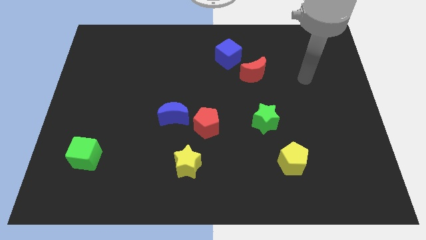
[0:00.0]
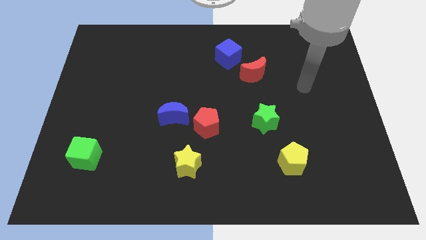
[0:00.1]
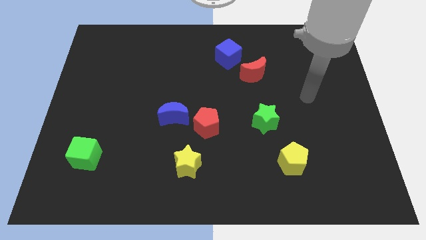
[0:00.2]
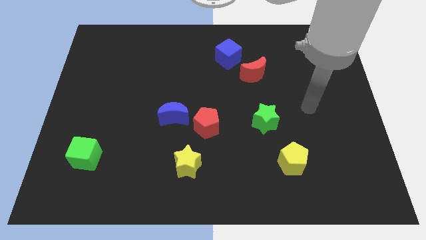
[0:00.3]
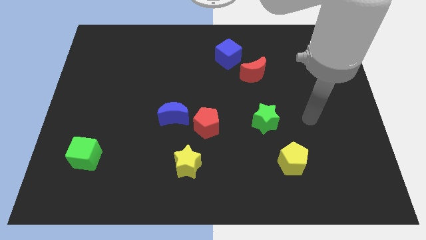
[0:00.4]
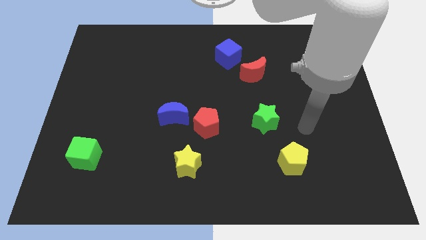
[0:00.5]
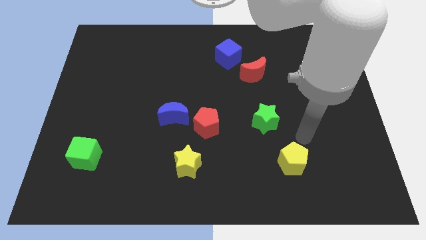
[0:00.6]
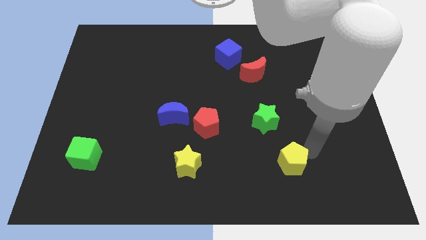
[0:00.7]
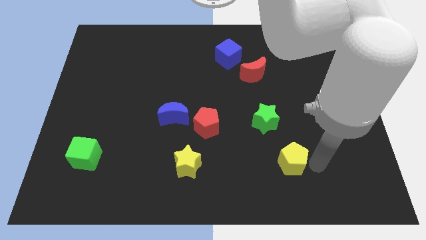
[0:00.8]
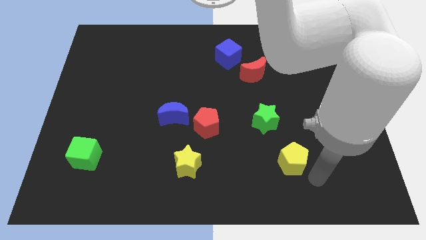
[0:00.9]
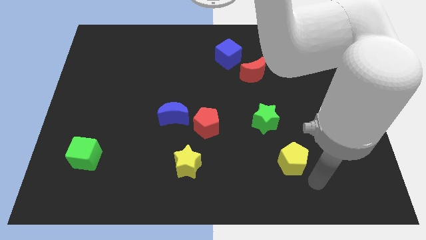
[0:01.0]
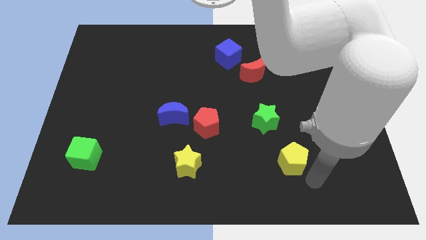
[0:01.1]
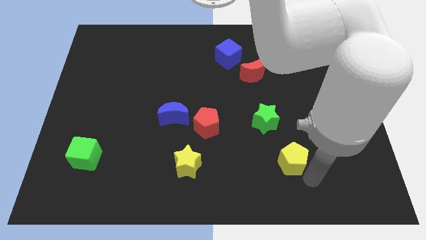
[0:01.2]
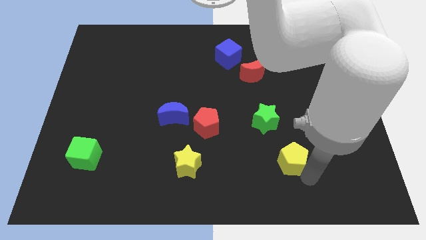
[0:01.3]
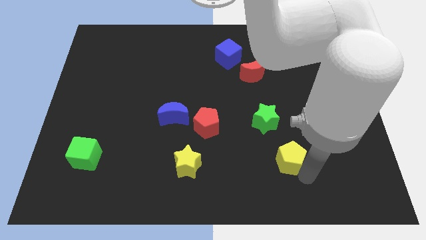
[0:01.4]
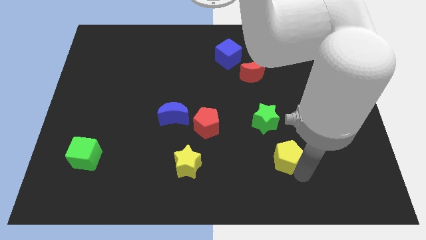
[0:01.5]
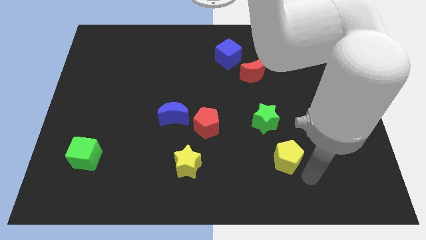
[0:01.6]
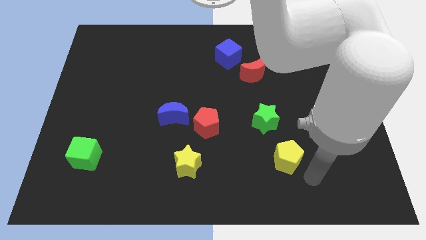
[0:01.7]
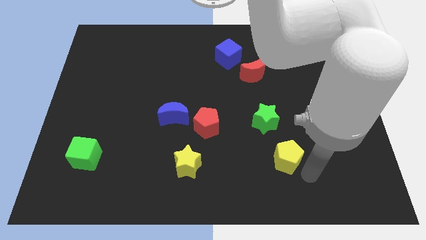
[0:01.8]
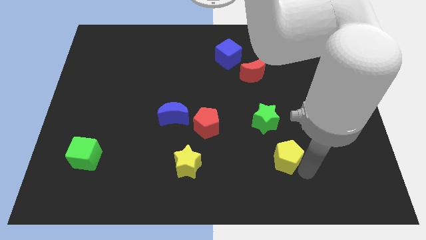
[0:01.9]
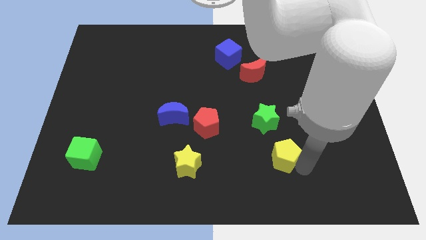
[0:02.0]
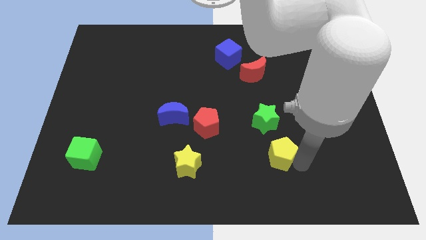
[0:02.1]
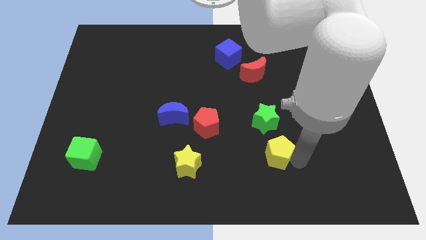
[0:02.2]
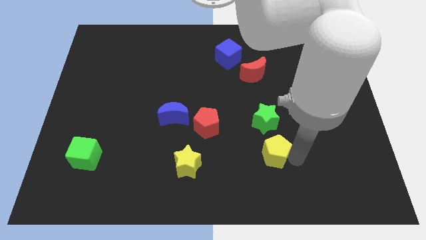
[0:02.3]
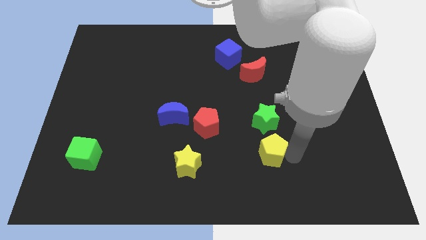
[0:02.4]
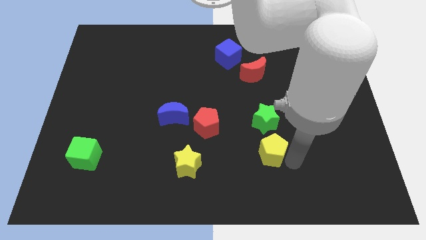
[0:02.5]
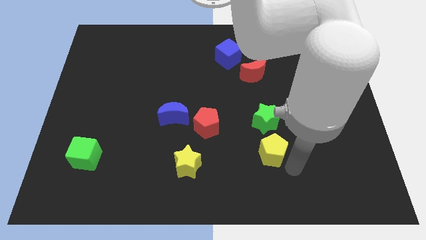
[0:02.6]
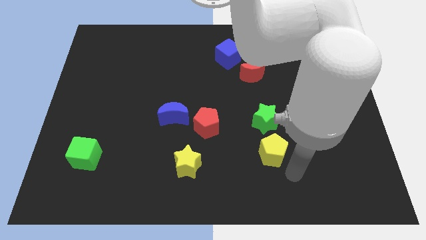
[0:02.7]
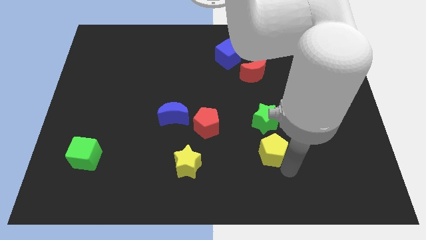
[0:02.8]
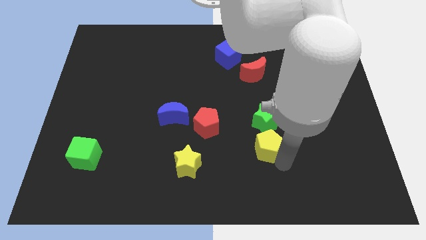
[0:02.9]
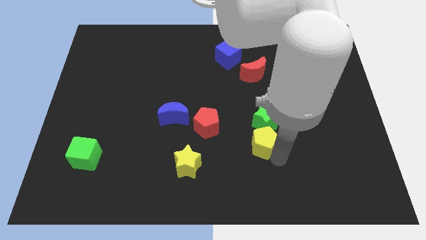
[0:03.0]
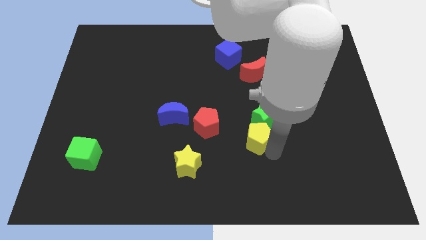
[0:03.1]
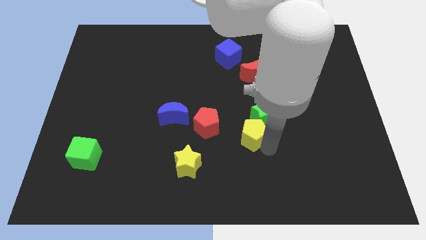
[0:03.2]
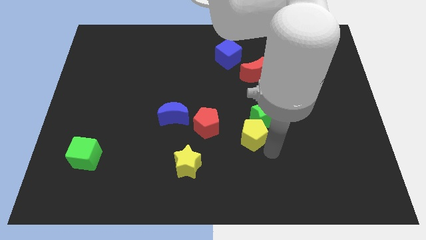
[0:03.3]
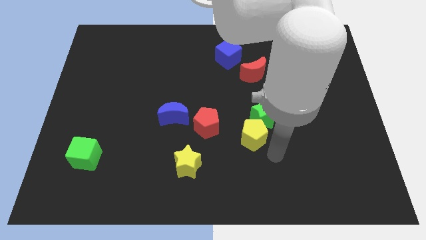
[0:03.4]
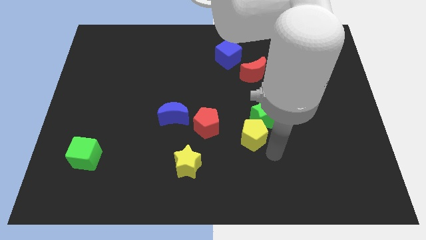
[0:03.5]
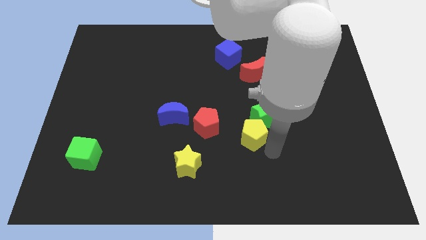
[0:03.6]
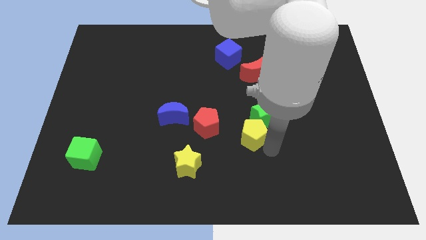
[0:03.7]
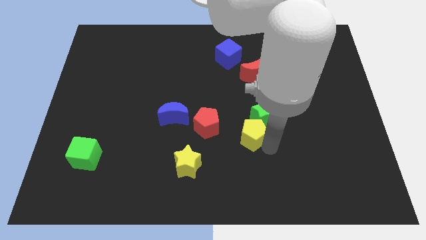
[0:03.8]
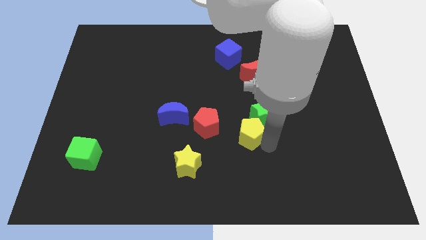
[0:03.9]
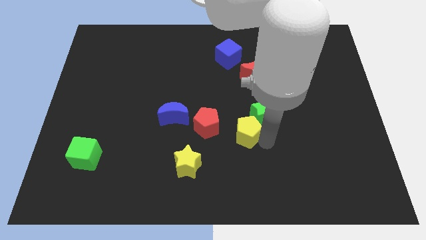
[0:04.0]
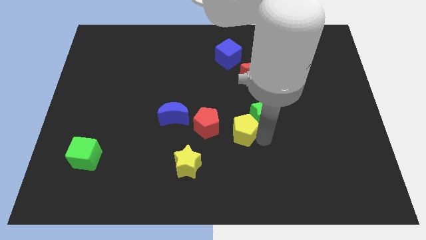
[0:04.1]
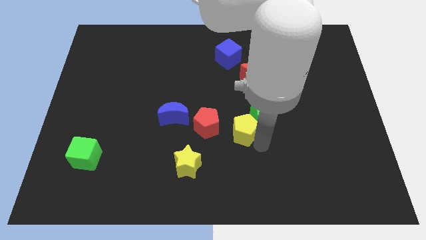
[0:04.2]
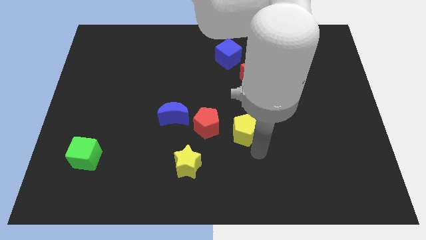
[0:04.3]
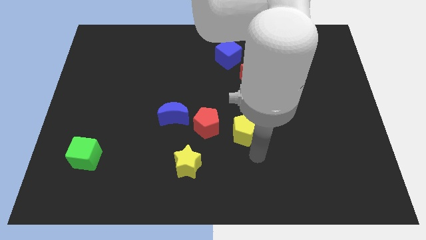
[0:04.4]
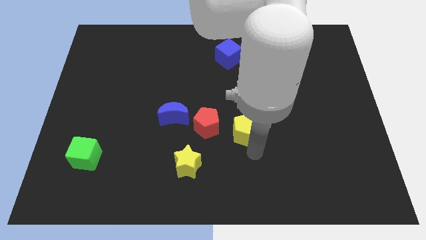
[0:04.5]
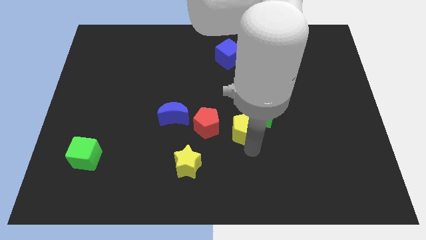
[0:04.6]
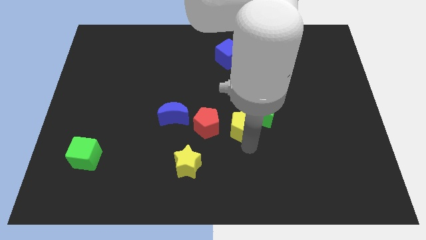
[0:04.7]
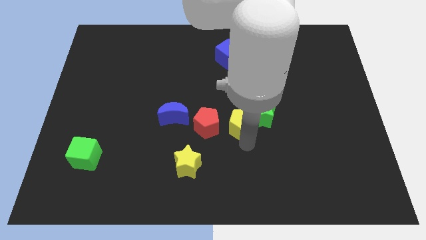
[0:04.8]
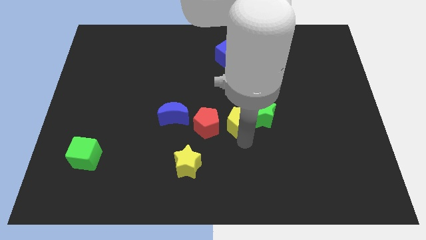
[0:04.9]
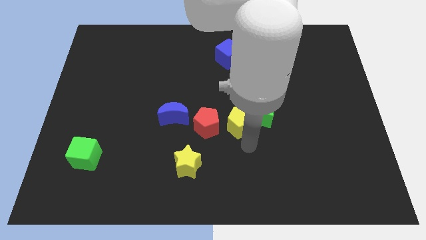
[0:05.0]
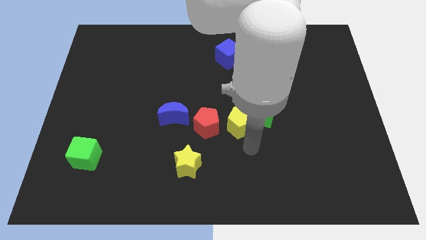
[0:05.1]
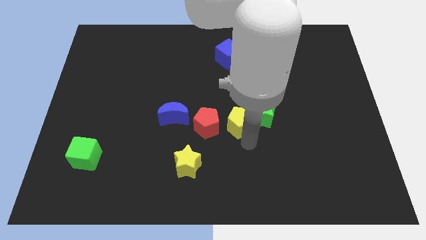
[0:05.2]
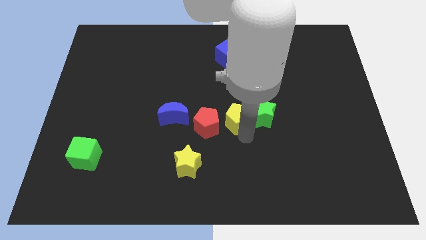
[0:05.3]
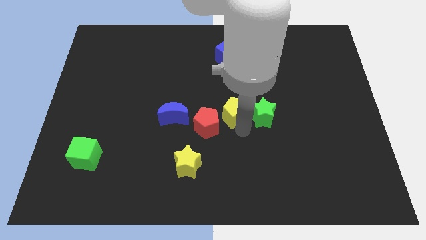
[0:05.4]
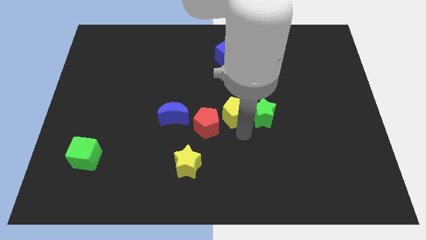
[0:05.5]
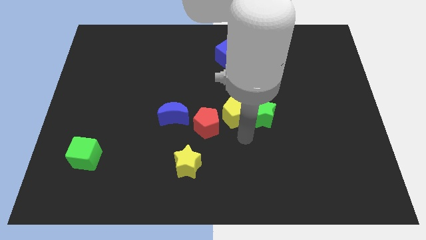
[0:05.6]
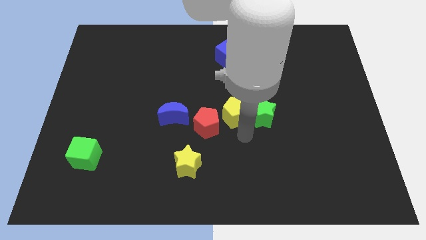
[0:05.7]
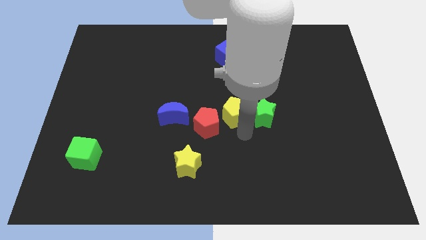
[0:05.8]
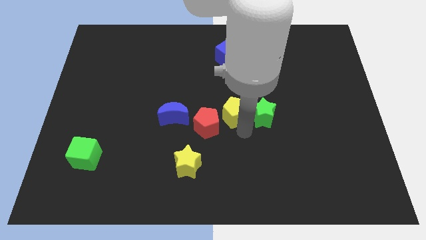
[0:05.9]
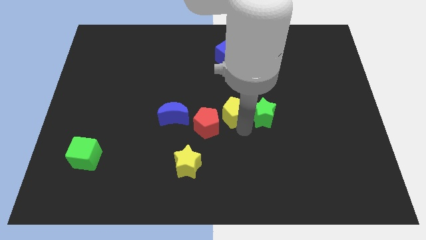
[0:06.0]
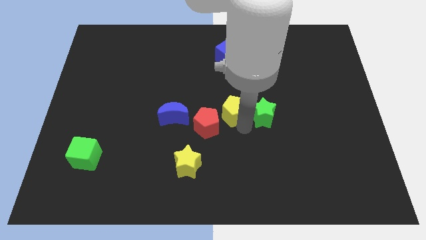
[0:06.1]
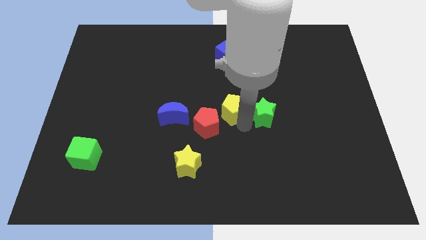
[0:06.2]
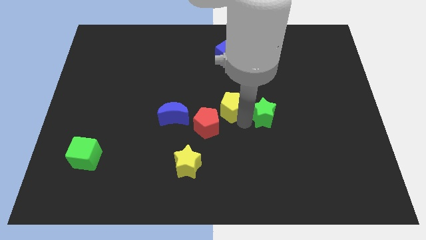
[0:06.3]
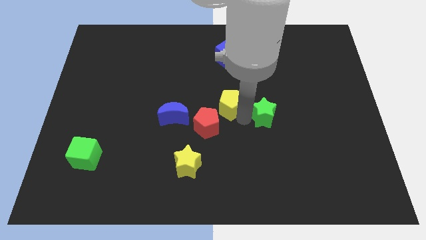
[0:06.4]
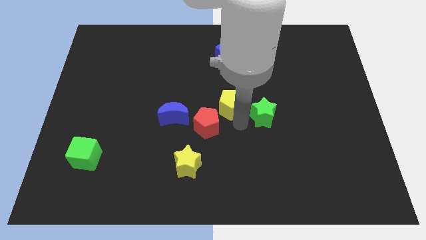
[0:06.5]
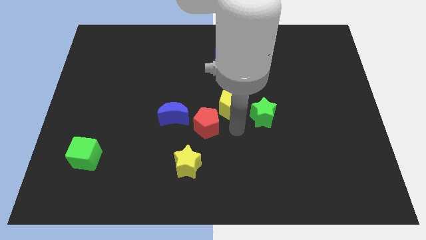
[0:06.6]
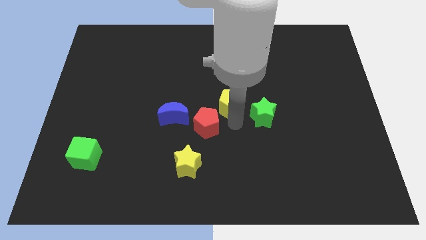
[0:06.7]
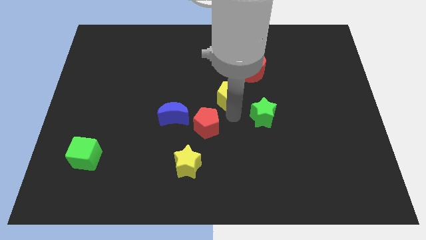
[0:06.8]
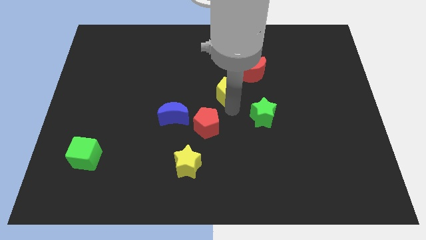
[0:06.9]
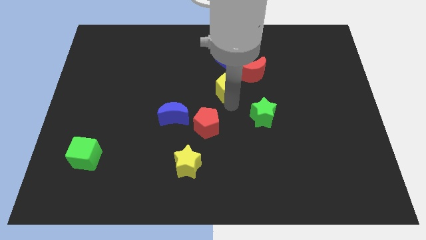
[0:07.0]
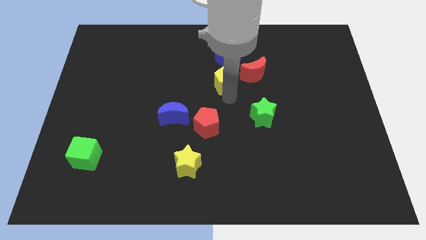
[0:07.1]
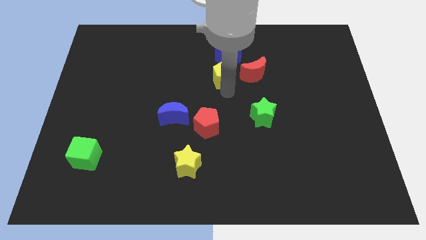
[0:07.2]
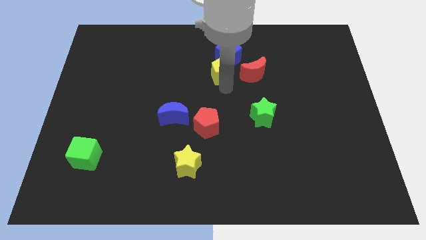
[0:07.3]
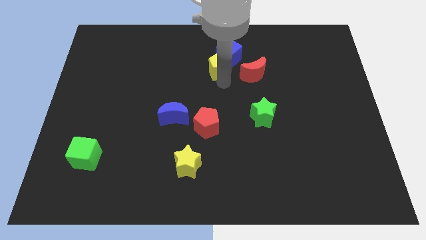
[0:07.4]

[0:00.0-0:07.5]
move the yellow pentagon to the blue cube

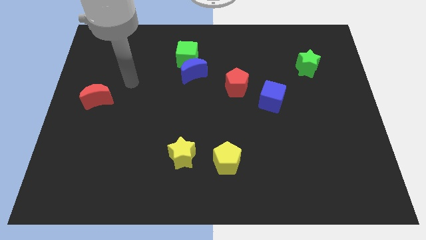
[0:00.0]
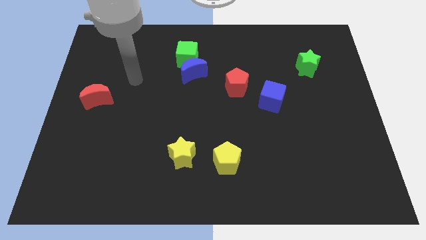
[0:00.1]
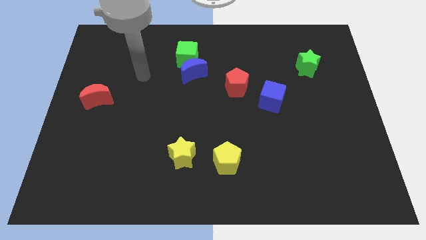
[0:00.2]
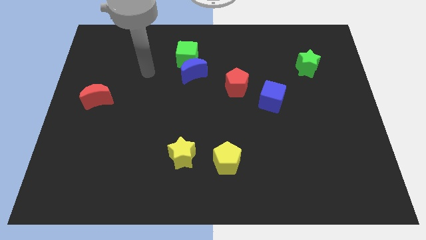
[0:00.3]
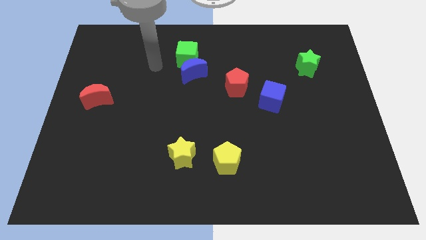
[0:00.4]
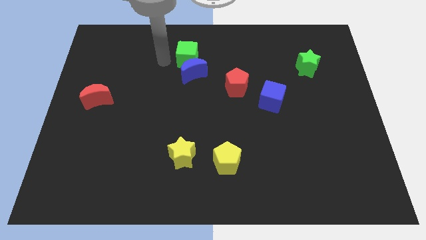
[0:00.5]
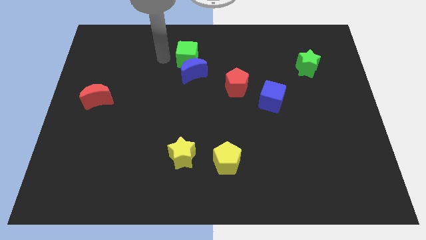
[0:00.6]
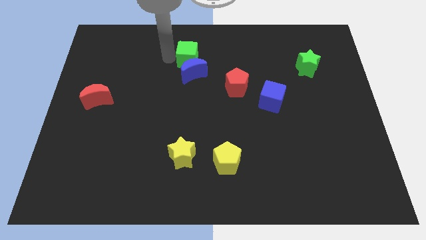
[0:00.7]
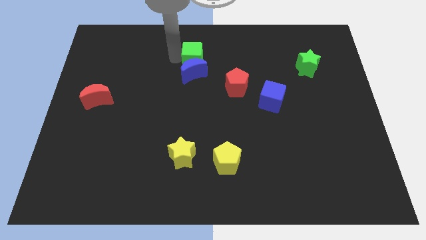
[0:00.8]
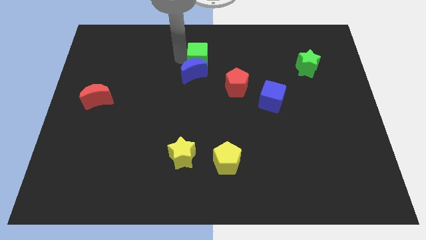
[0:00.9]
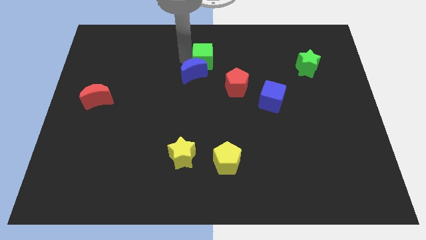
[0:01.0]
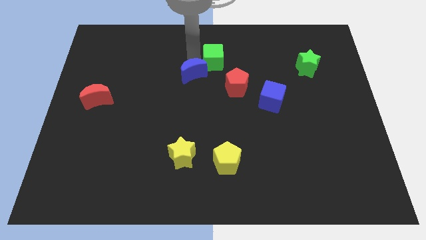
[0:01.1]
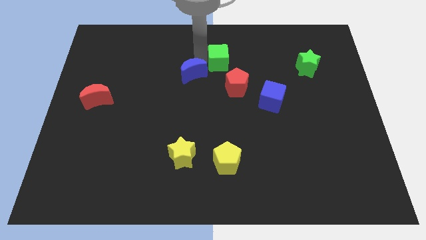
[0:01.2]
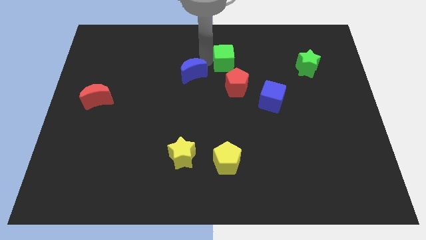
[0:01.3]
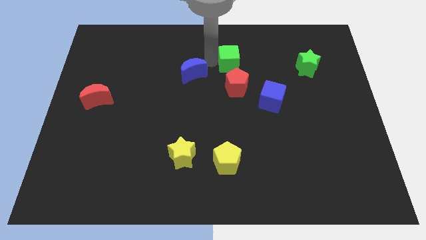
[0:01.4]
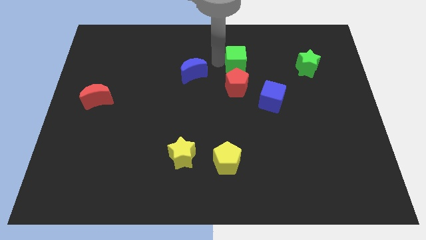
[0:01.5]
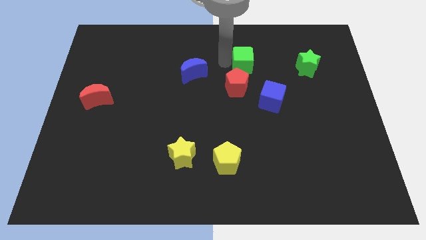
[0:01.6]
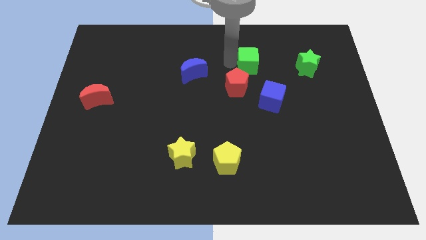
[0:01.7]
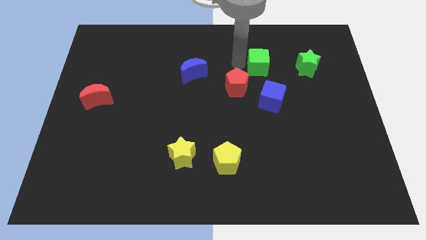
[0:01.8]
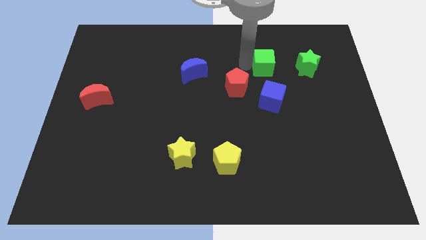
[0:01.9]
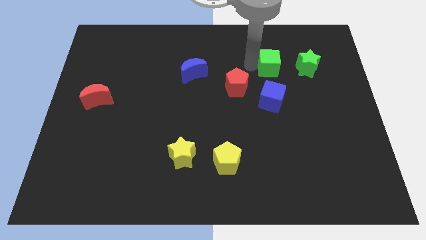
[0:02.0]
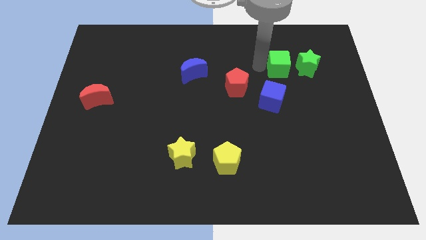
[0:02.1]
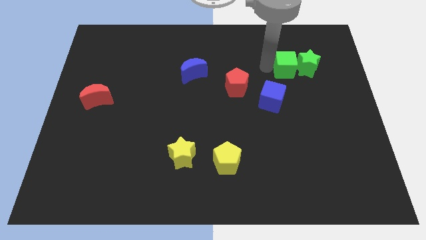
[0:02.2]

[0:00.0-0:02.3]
move the green cube to the green star
